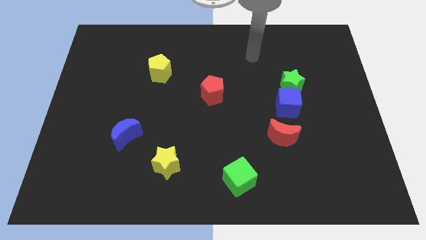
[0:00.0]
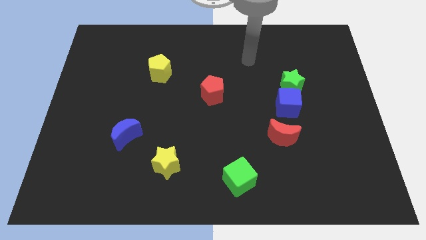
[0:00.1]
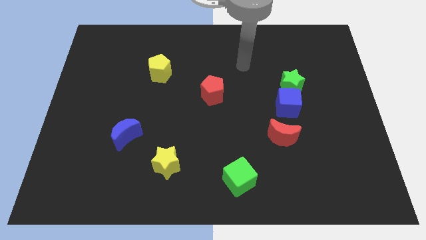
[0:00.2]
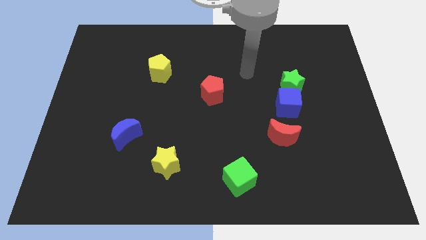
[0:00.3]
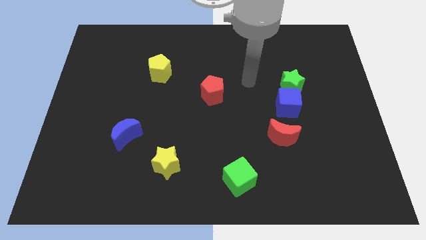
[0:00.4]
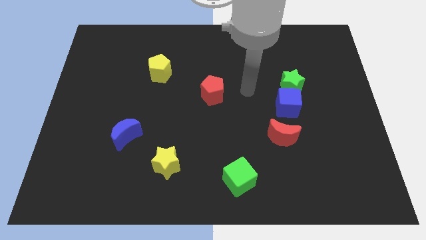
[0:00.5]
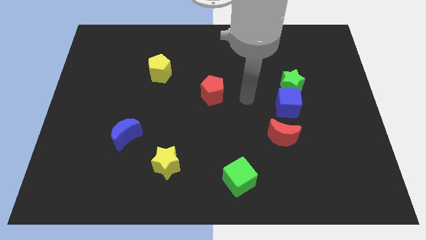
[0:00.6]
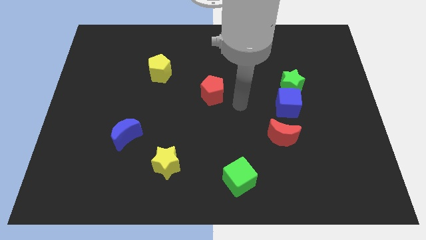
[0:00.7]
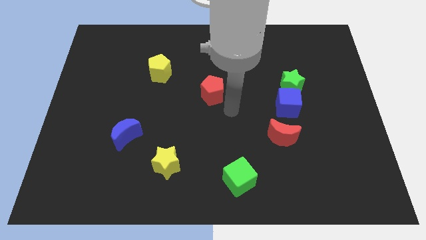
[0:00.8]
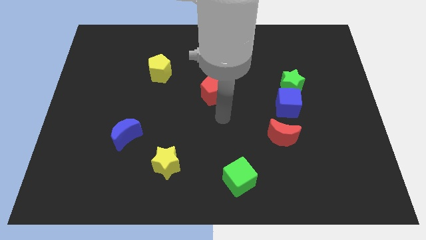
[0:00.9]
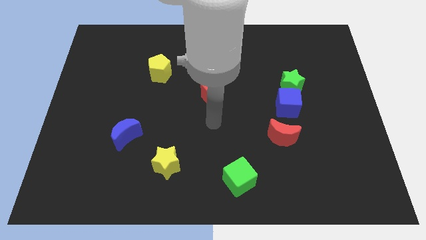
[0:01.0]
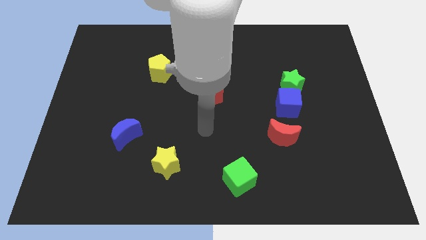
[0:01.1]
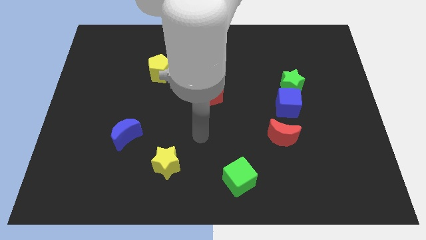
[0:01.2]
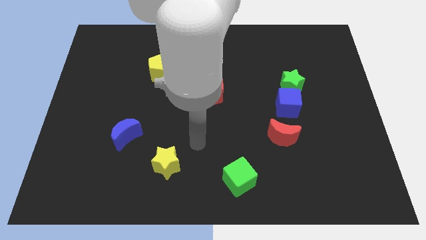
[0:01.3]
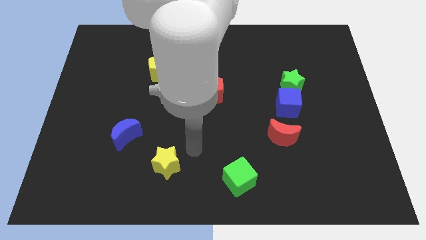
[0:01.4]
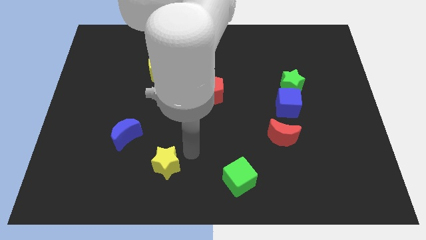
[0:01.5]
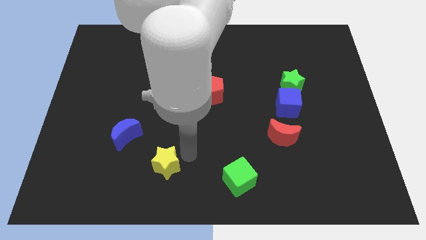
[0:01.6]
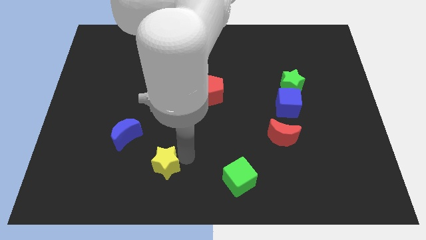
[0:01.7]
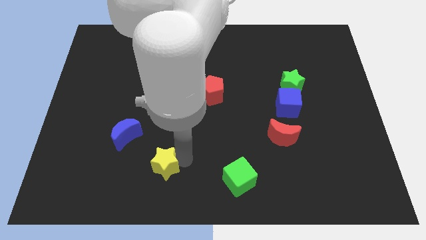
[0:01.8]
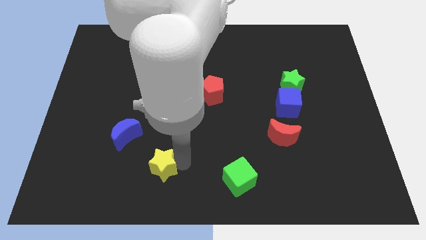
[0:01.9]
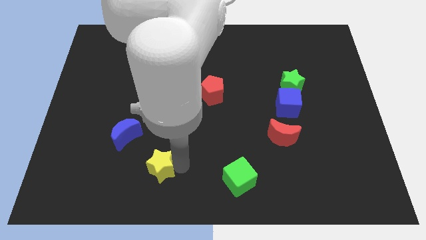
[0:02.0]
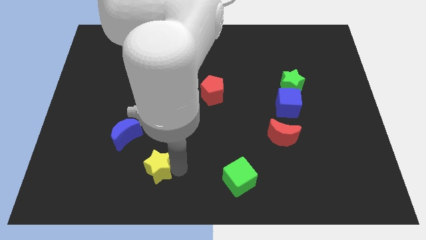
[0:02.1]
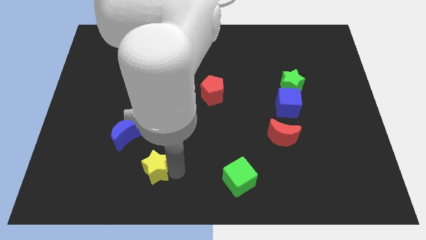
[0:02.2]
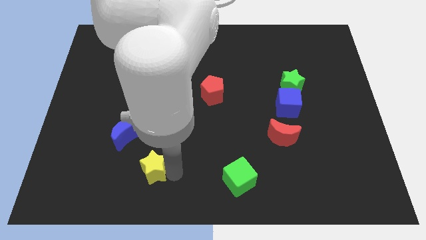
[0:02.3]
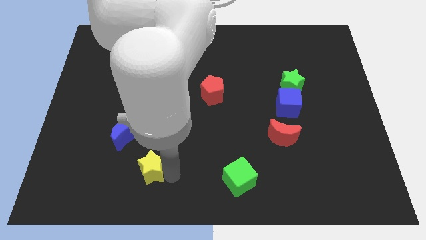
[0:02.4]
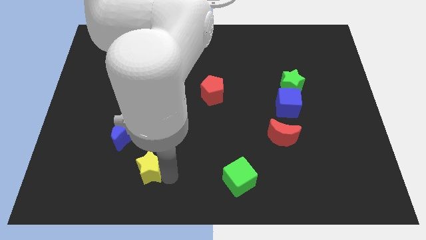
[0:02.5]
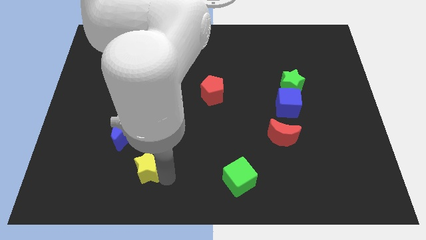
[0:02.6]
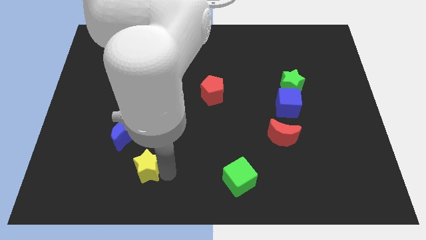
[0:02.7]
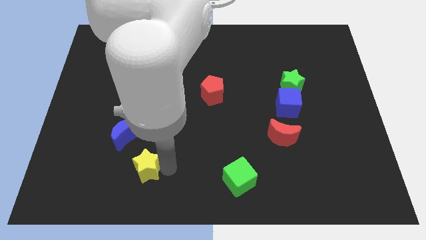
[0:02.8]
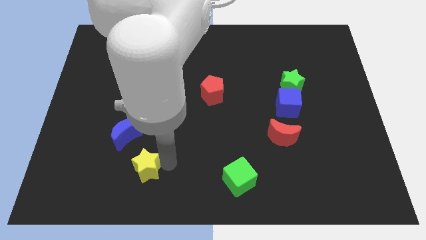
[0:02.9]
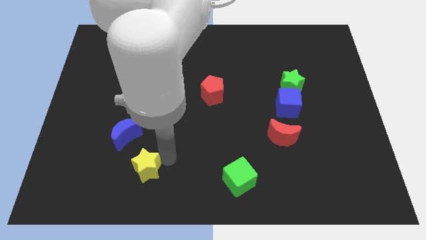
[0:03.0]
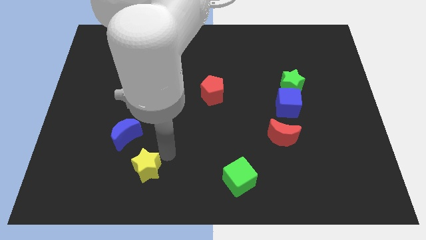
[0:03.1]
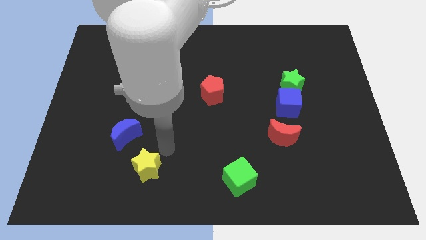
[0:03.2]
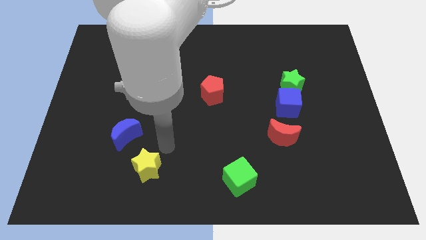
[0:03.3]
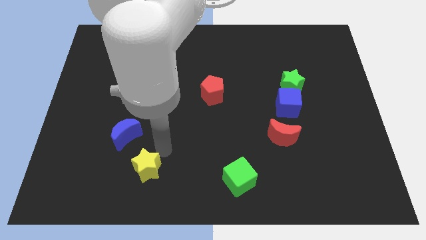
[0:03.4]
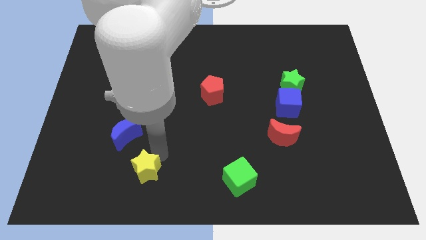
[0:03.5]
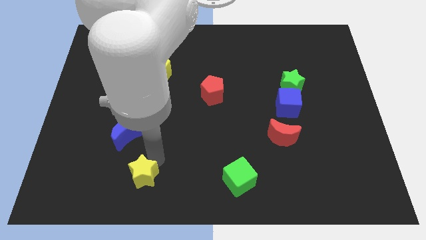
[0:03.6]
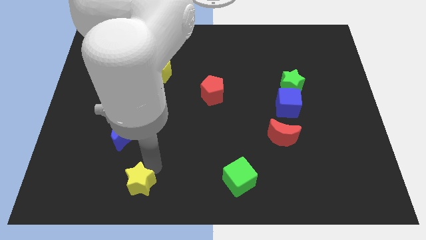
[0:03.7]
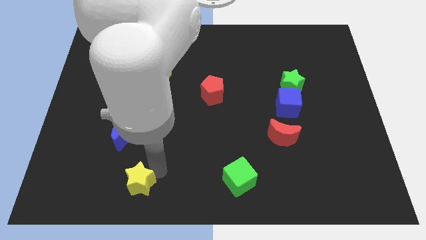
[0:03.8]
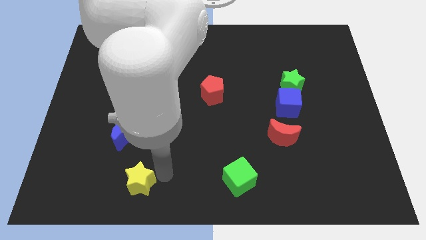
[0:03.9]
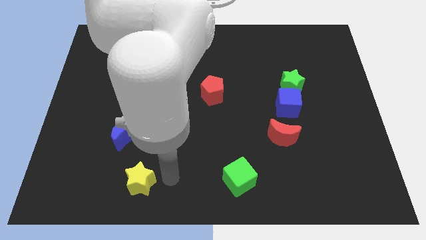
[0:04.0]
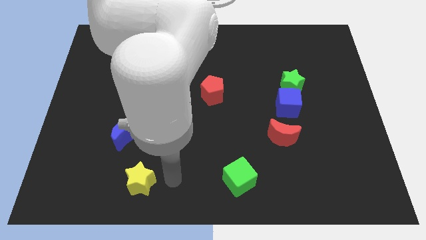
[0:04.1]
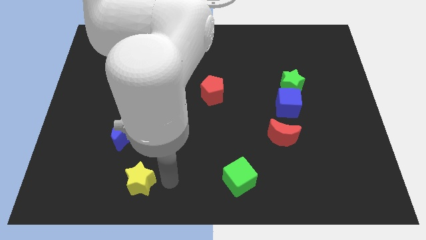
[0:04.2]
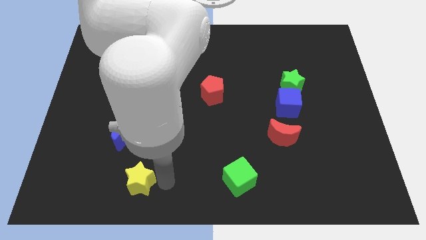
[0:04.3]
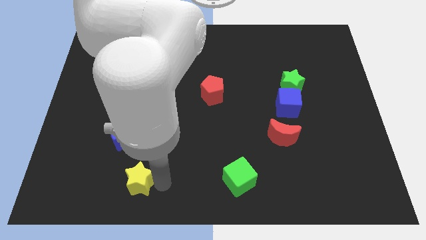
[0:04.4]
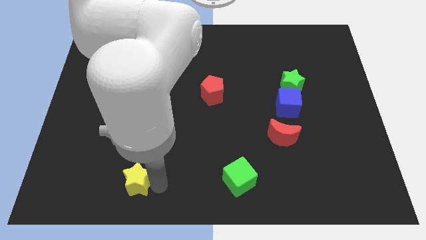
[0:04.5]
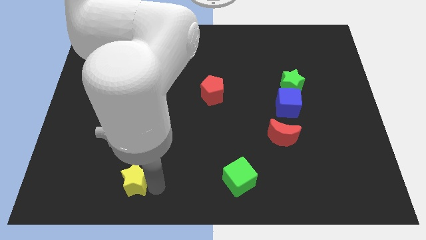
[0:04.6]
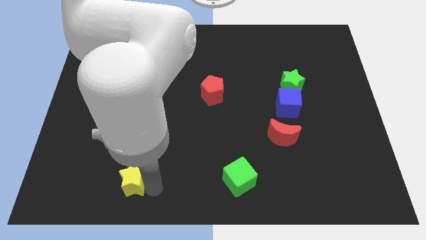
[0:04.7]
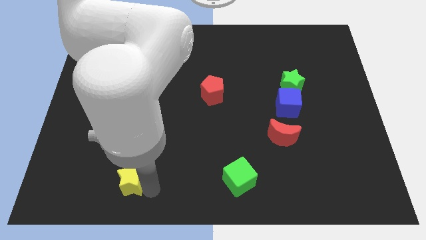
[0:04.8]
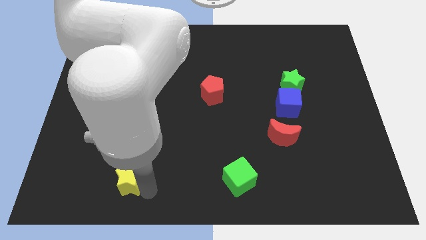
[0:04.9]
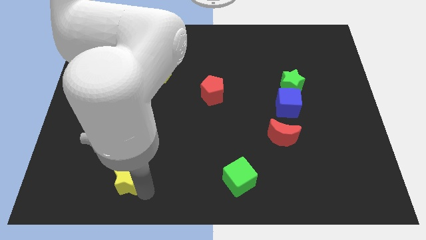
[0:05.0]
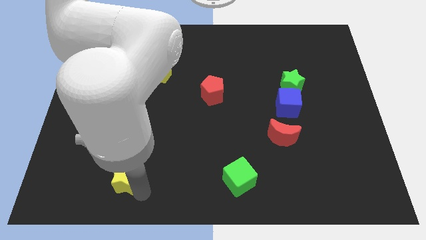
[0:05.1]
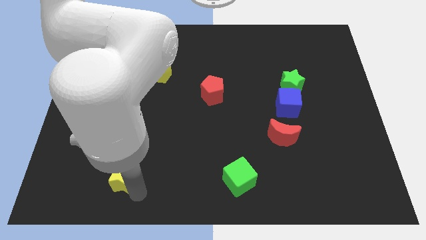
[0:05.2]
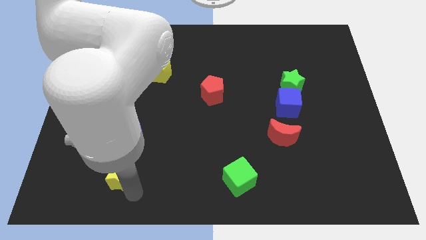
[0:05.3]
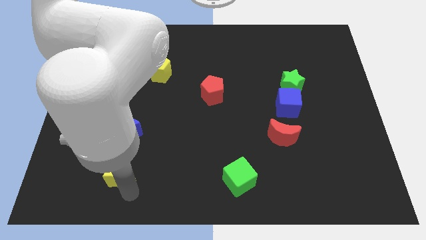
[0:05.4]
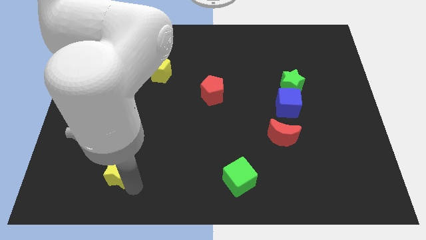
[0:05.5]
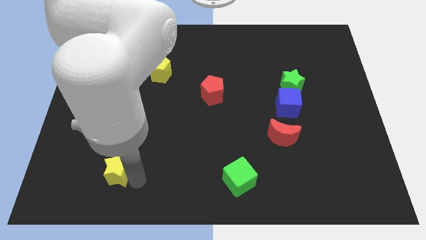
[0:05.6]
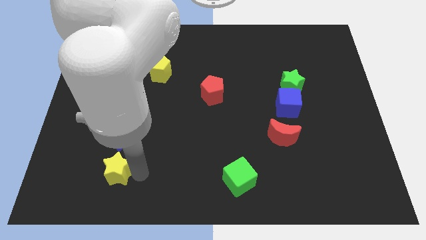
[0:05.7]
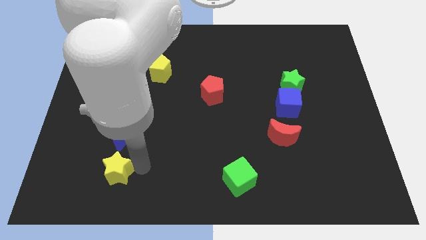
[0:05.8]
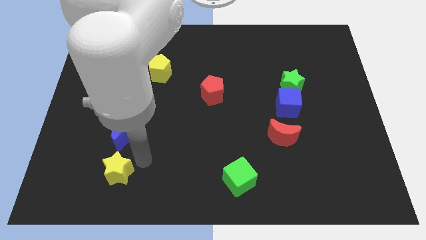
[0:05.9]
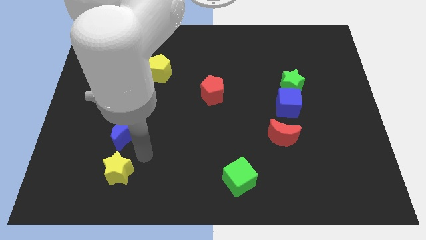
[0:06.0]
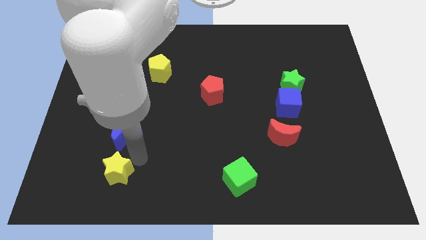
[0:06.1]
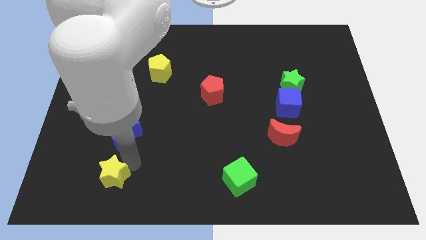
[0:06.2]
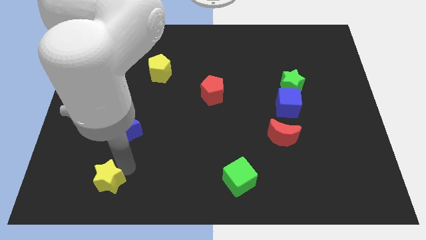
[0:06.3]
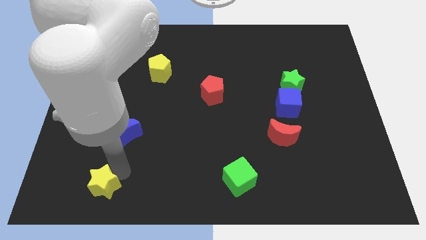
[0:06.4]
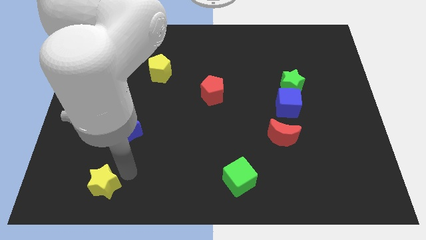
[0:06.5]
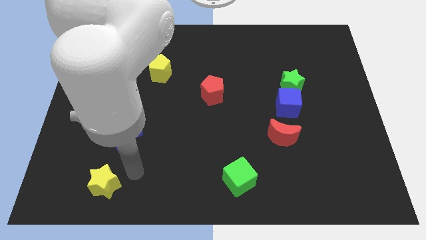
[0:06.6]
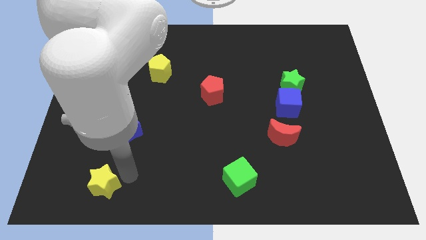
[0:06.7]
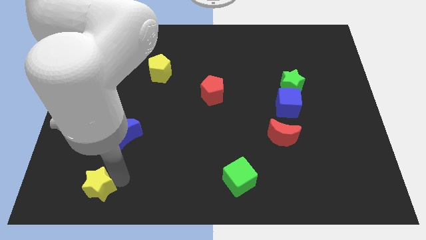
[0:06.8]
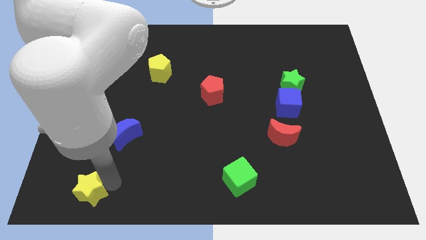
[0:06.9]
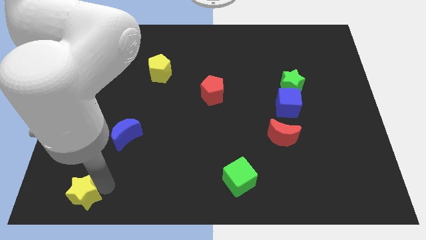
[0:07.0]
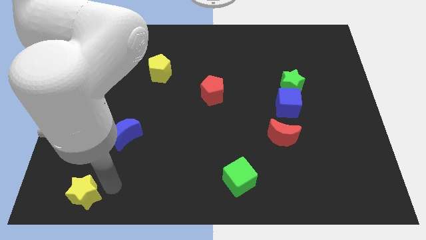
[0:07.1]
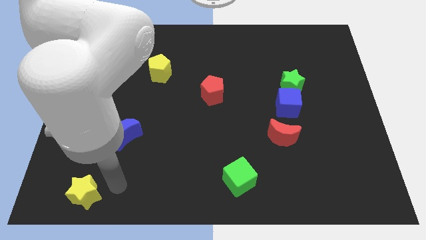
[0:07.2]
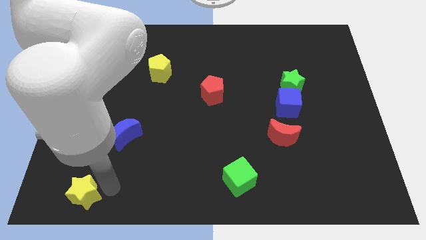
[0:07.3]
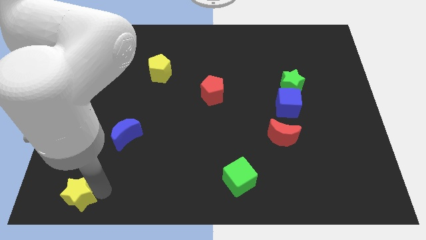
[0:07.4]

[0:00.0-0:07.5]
move the yellow star to the bottom left
